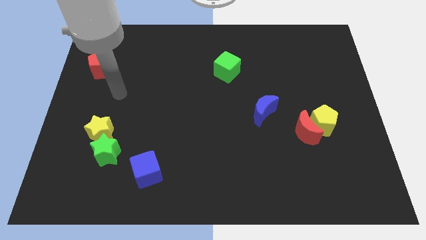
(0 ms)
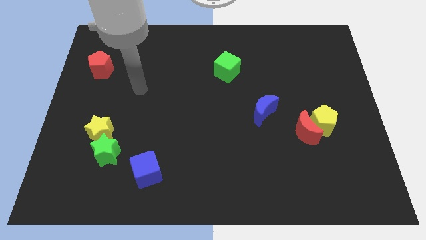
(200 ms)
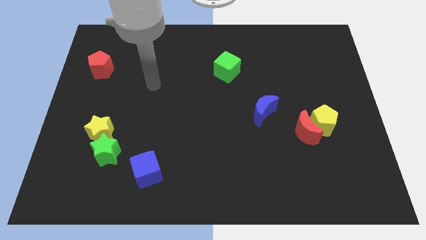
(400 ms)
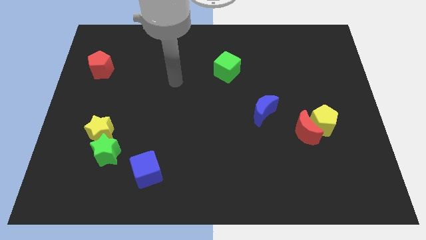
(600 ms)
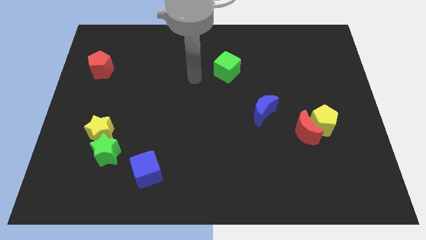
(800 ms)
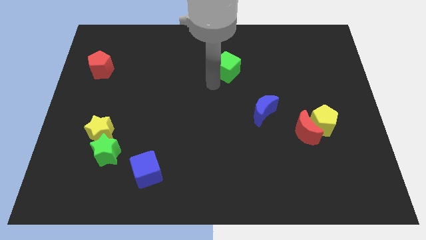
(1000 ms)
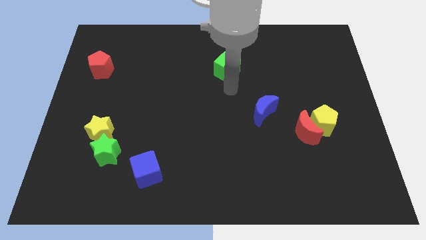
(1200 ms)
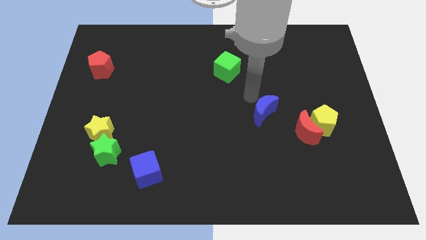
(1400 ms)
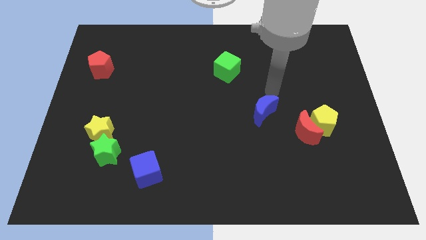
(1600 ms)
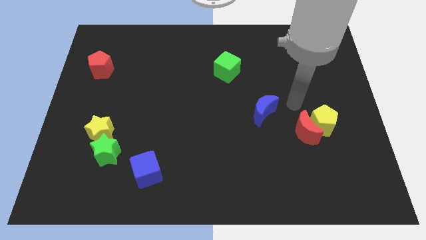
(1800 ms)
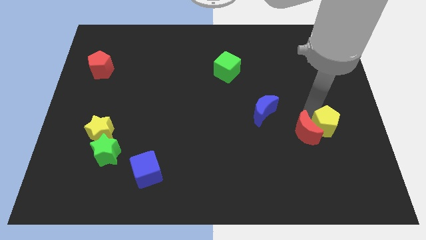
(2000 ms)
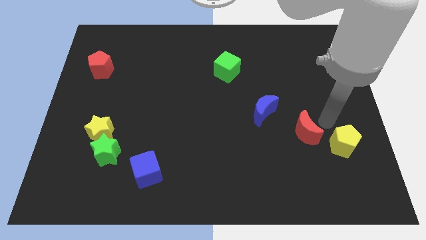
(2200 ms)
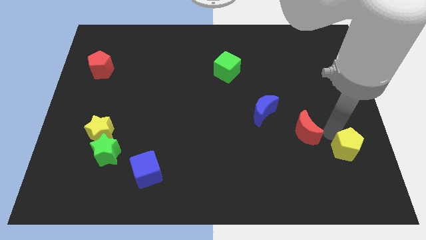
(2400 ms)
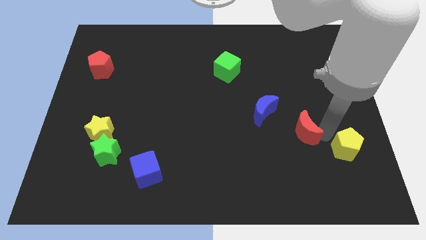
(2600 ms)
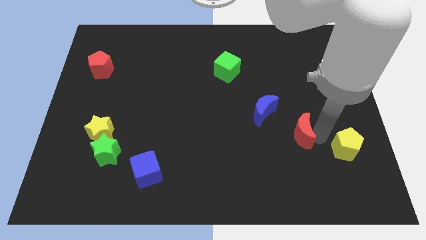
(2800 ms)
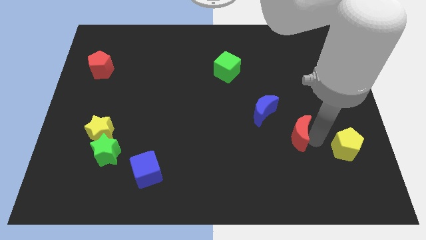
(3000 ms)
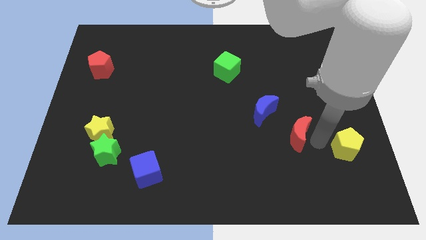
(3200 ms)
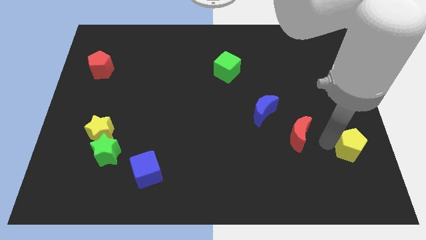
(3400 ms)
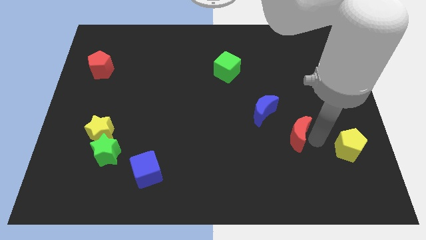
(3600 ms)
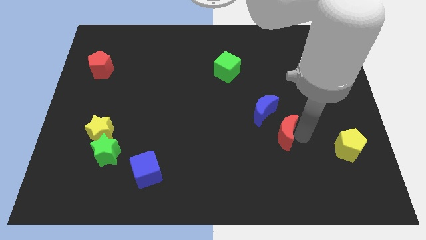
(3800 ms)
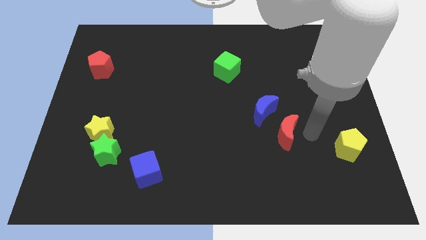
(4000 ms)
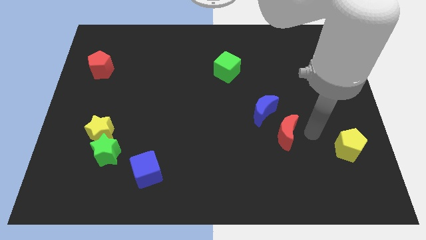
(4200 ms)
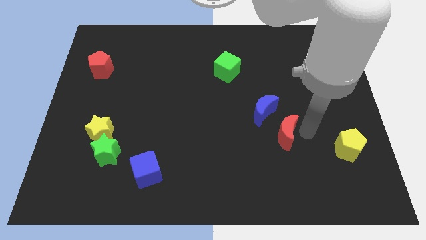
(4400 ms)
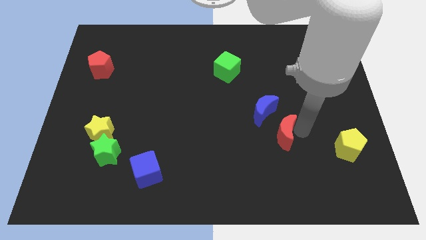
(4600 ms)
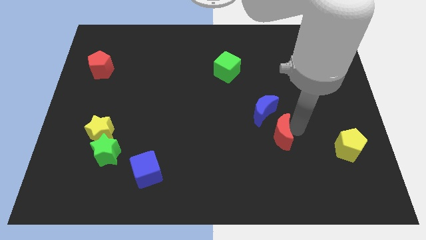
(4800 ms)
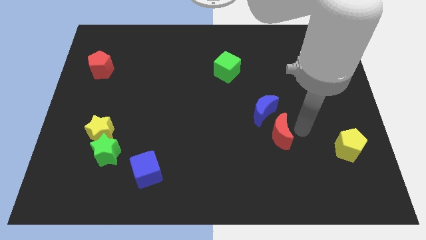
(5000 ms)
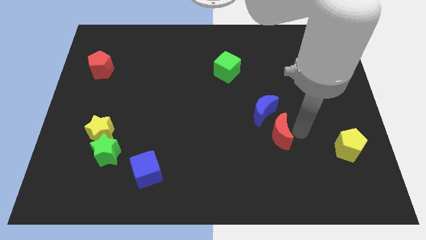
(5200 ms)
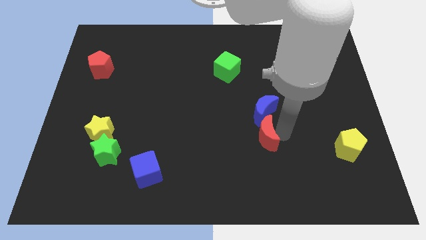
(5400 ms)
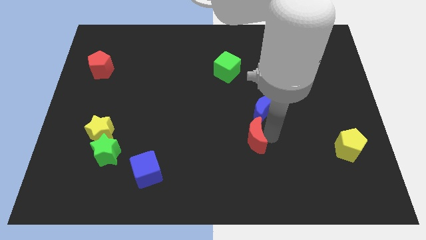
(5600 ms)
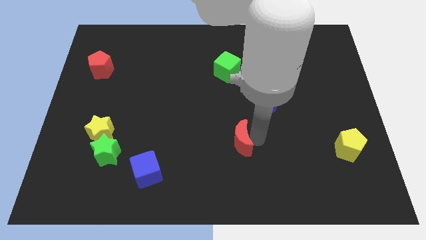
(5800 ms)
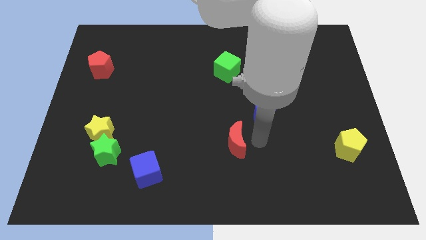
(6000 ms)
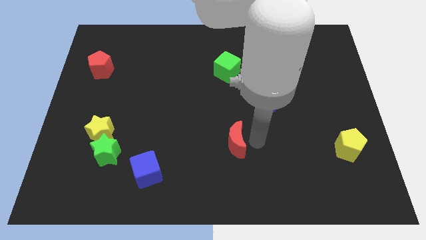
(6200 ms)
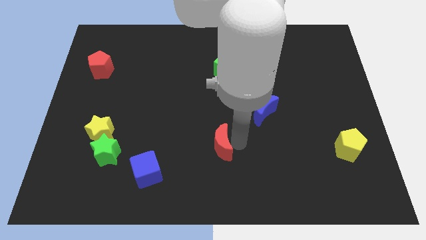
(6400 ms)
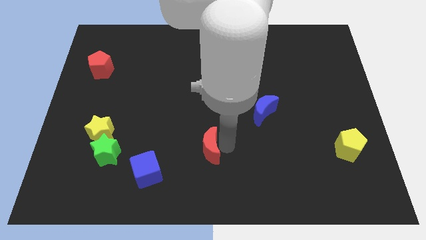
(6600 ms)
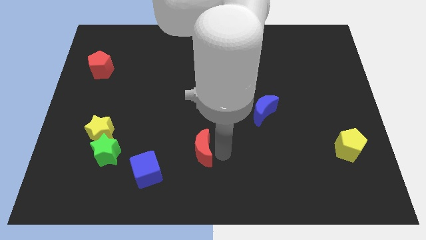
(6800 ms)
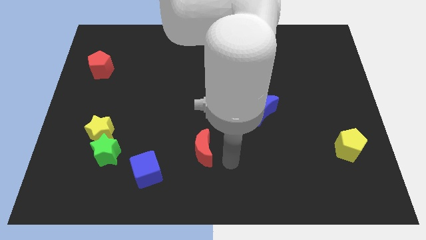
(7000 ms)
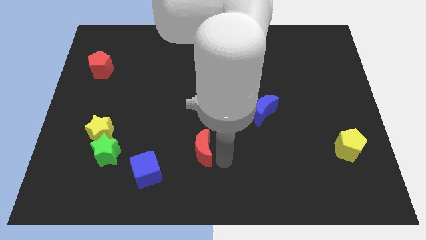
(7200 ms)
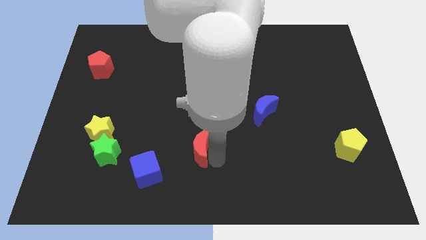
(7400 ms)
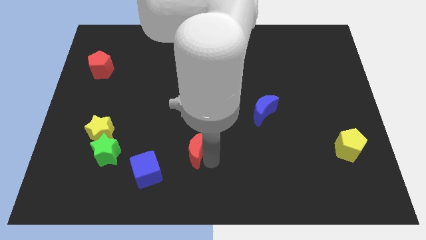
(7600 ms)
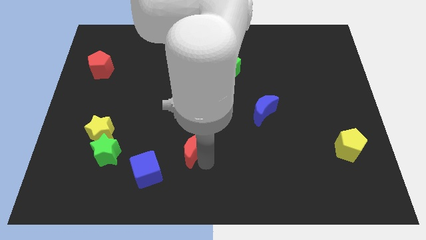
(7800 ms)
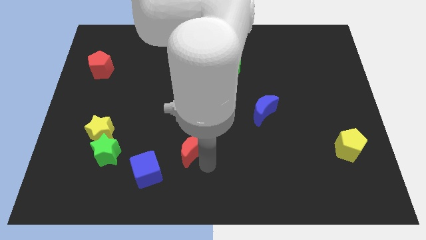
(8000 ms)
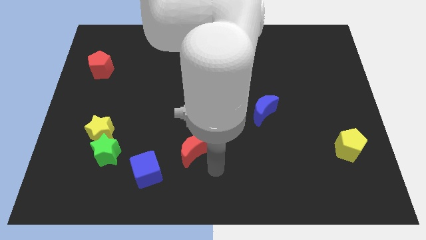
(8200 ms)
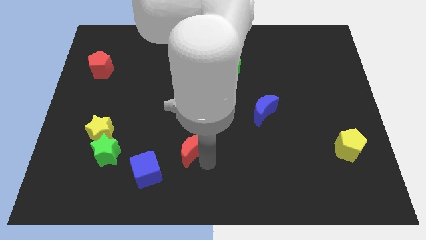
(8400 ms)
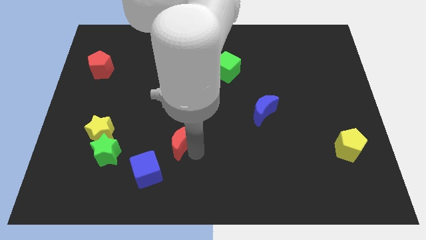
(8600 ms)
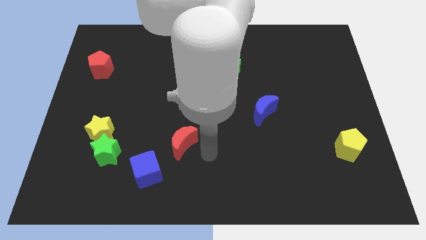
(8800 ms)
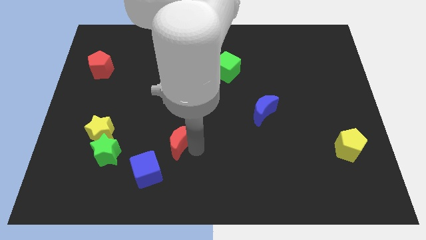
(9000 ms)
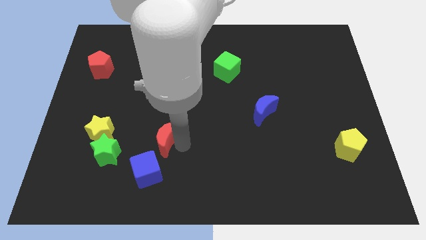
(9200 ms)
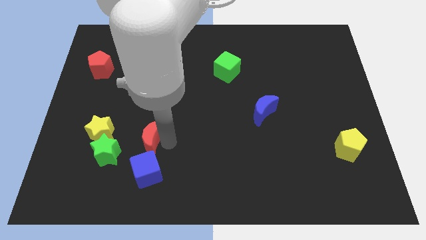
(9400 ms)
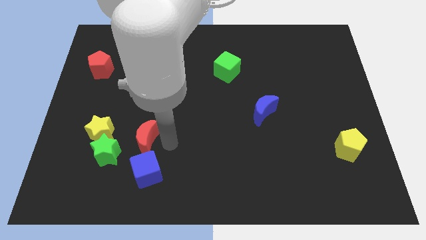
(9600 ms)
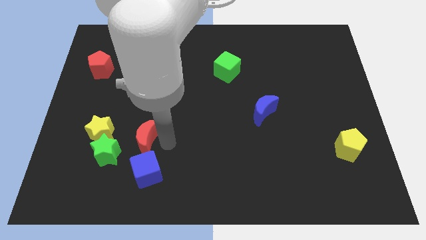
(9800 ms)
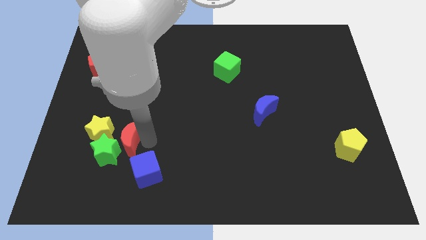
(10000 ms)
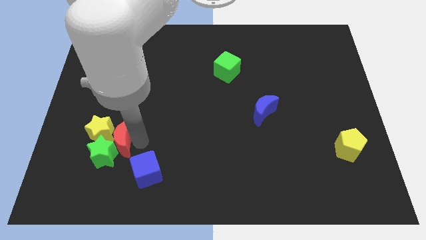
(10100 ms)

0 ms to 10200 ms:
put the red moon to the yellow star

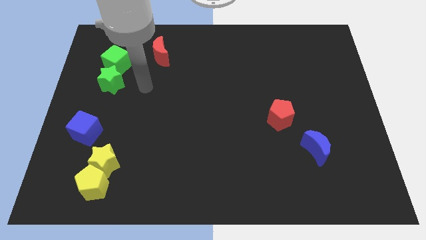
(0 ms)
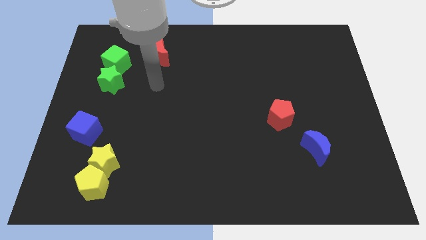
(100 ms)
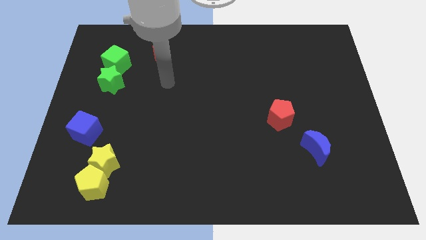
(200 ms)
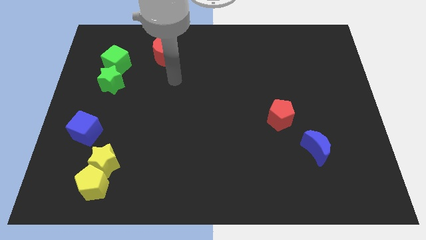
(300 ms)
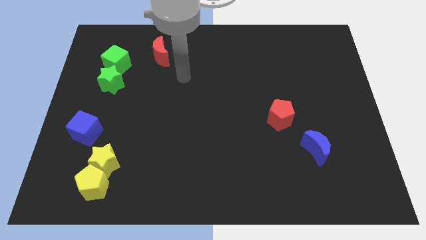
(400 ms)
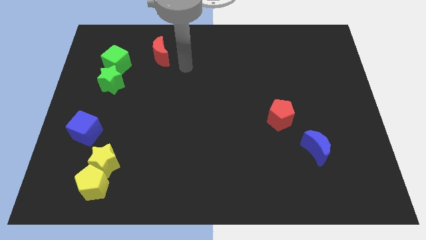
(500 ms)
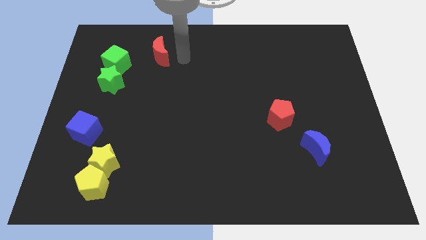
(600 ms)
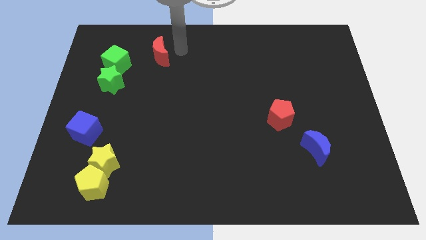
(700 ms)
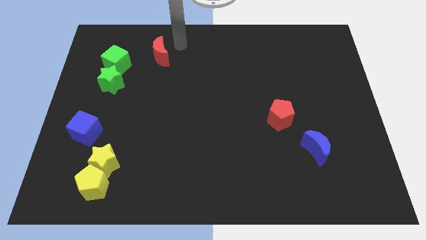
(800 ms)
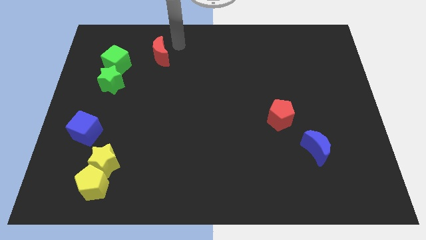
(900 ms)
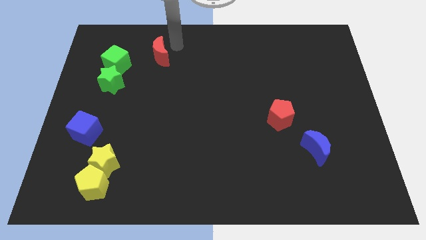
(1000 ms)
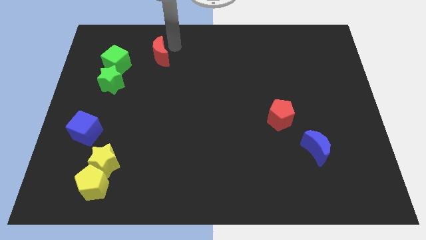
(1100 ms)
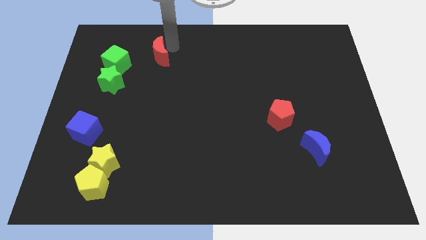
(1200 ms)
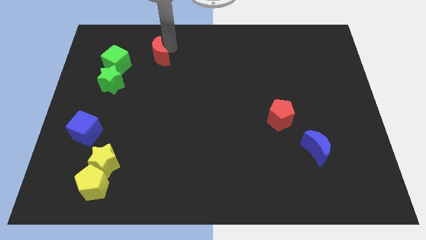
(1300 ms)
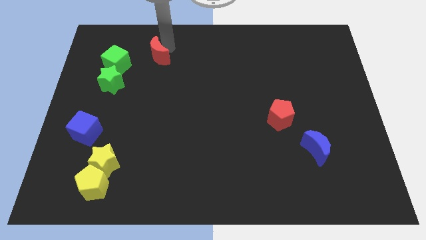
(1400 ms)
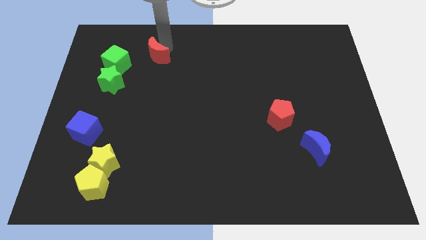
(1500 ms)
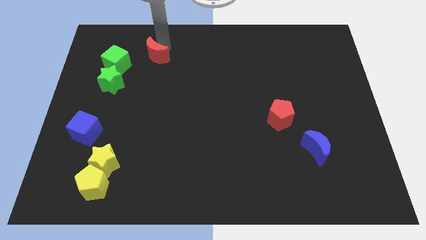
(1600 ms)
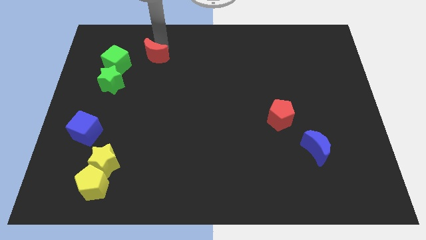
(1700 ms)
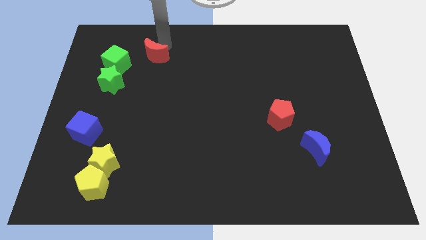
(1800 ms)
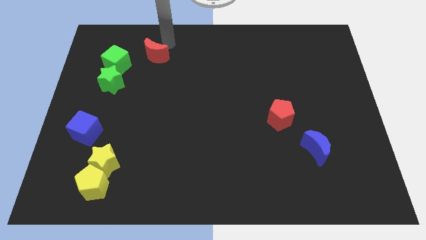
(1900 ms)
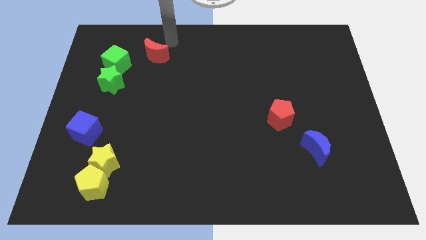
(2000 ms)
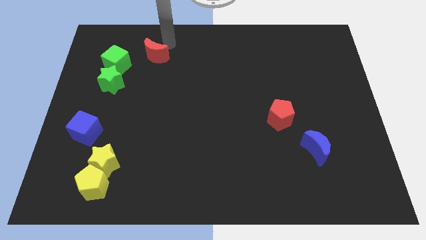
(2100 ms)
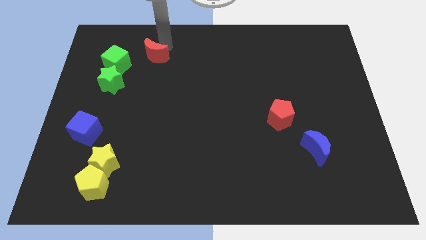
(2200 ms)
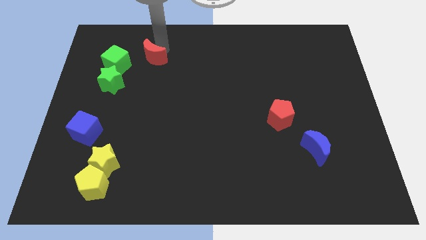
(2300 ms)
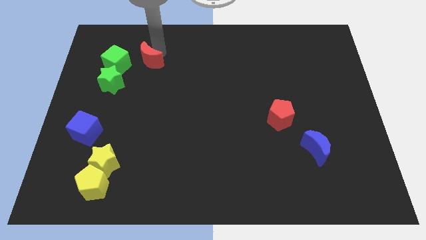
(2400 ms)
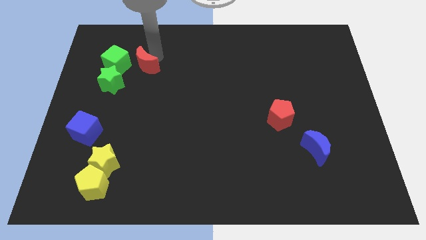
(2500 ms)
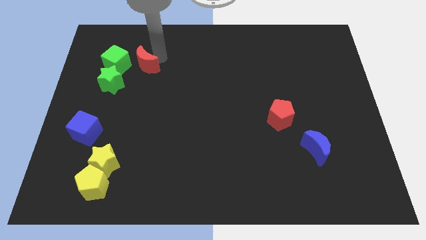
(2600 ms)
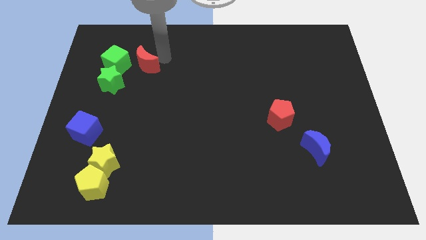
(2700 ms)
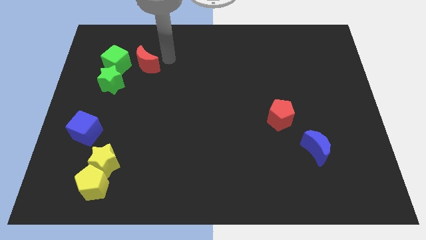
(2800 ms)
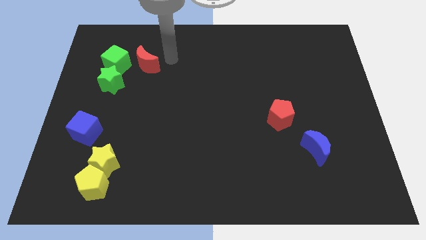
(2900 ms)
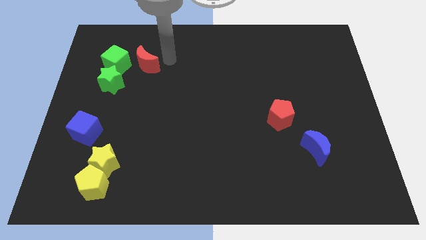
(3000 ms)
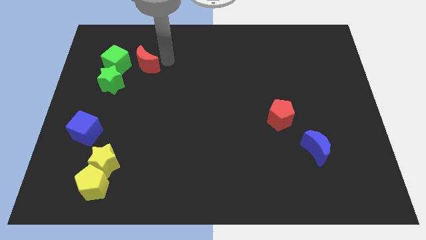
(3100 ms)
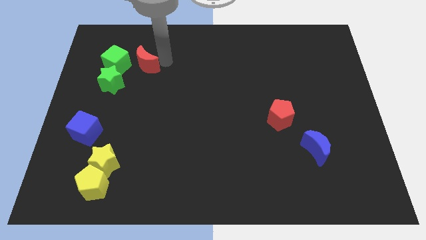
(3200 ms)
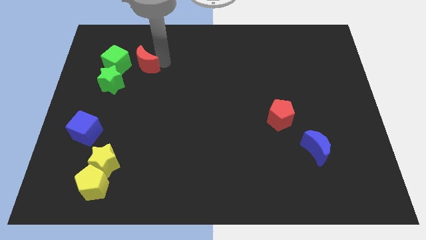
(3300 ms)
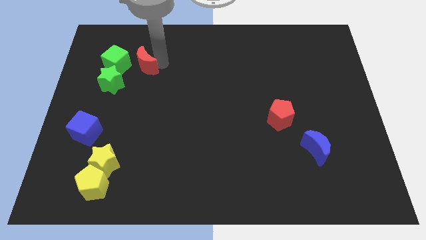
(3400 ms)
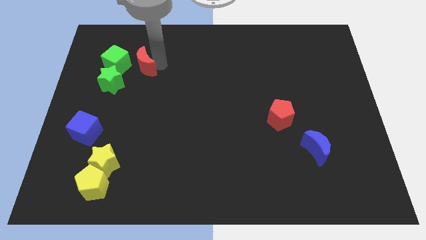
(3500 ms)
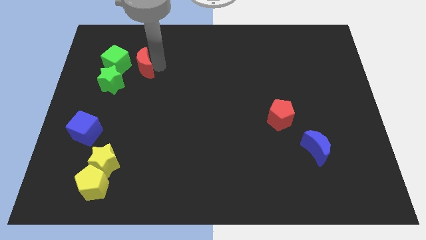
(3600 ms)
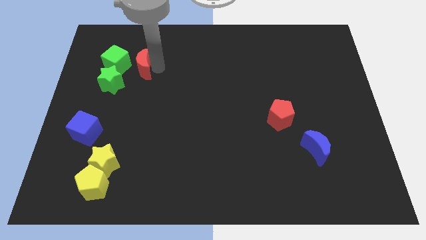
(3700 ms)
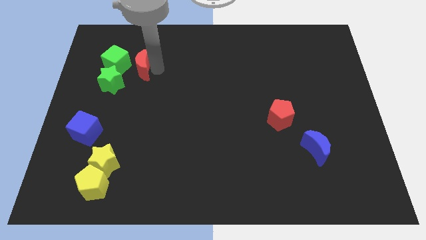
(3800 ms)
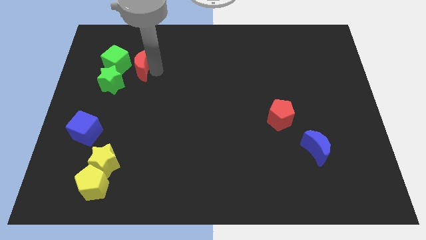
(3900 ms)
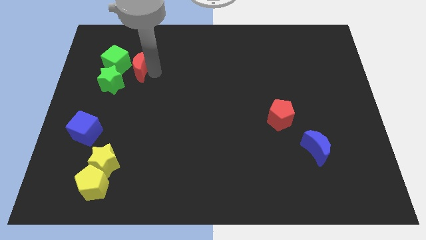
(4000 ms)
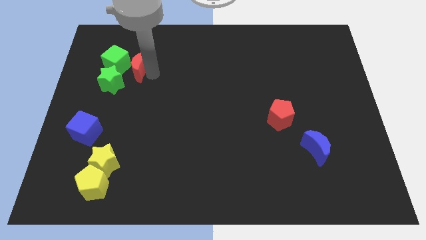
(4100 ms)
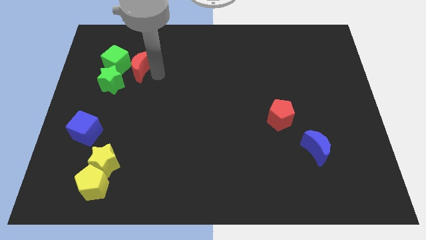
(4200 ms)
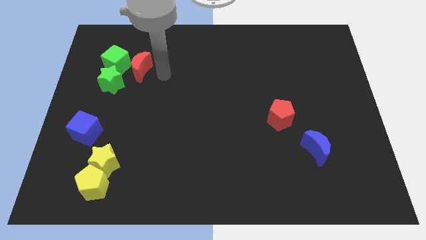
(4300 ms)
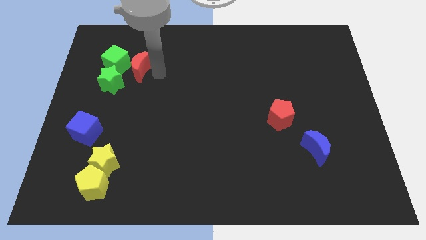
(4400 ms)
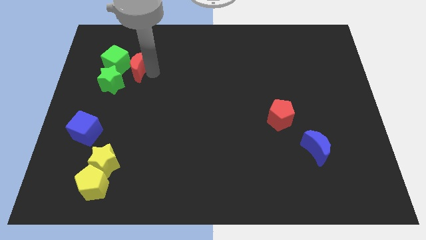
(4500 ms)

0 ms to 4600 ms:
move the red moon to the green cube
